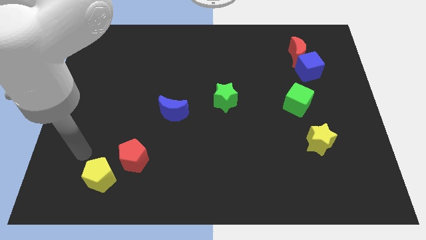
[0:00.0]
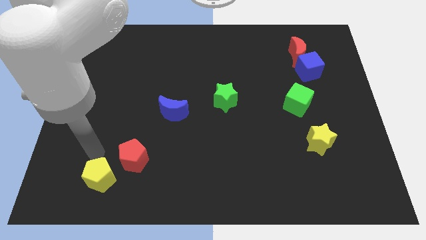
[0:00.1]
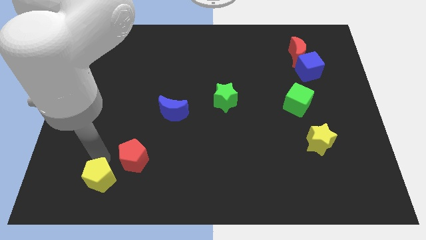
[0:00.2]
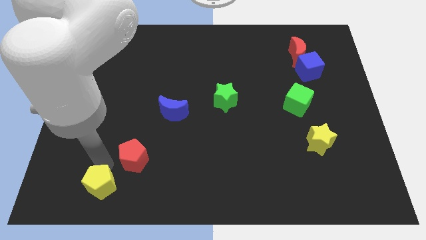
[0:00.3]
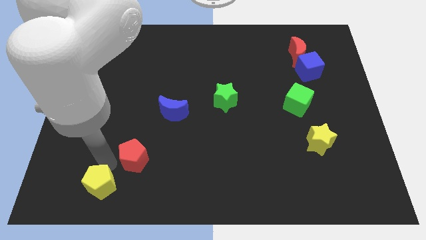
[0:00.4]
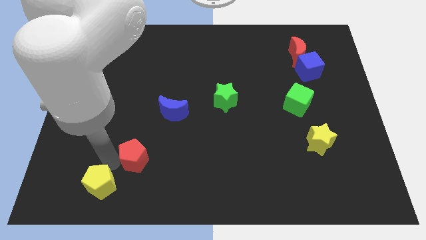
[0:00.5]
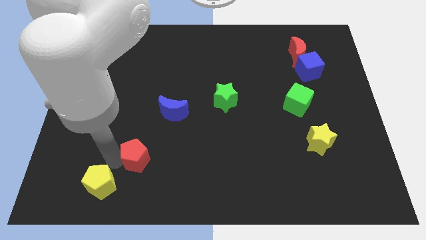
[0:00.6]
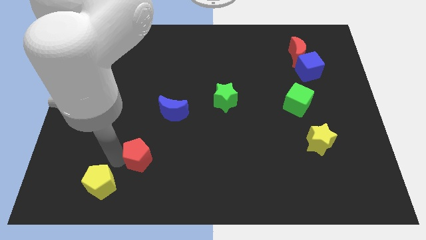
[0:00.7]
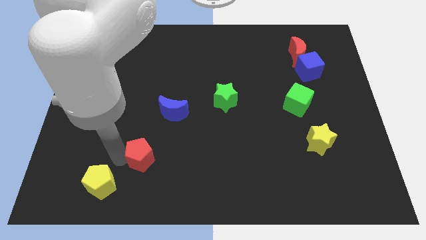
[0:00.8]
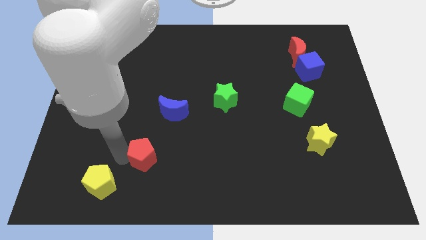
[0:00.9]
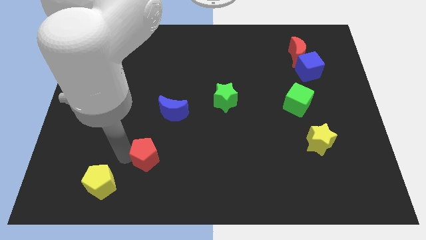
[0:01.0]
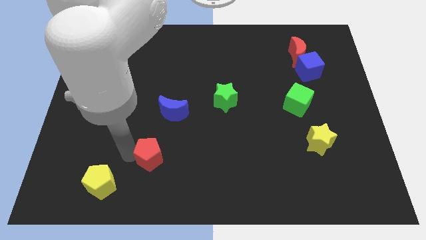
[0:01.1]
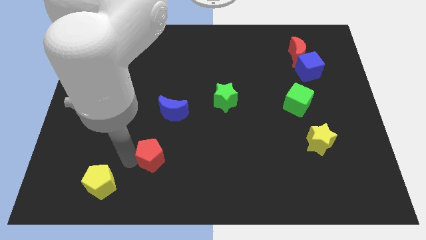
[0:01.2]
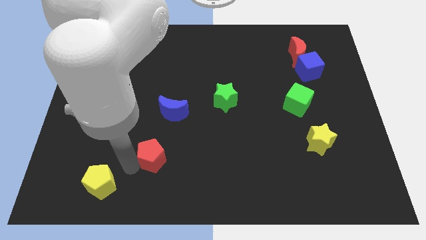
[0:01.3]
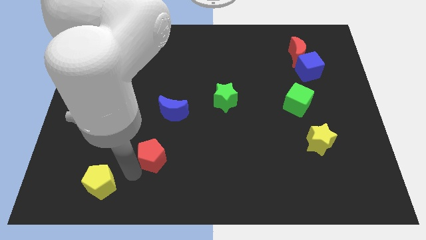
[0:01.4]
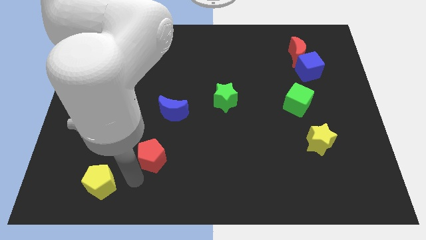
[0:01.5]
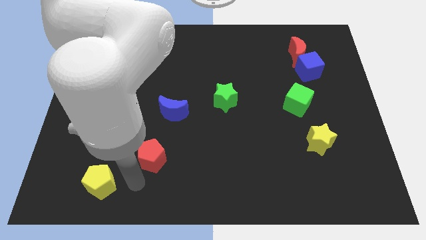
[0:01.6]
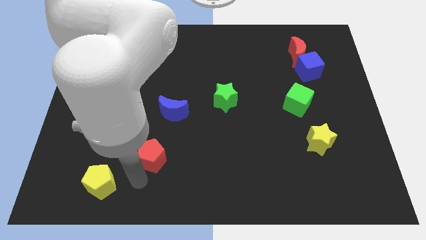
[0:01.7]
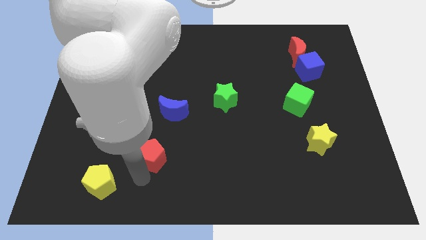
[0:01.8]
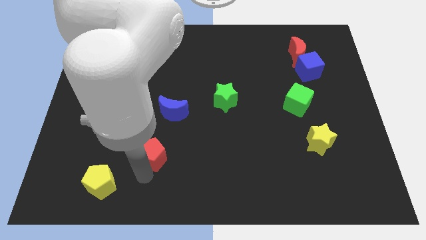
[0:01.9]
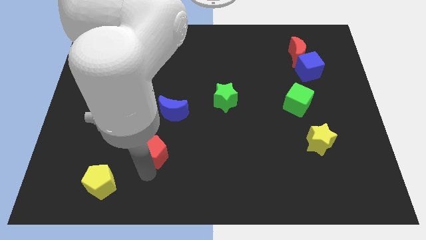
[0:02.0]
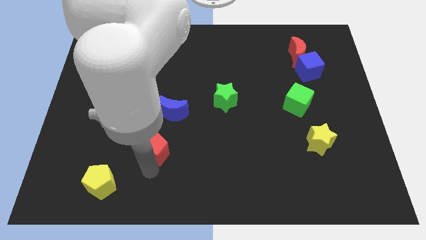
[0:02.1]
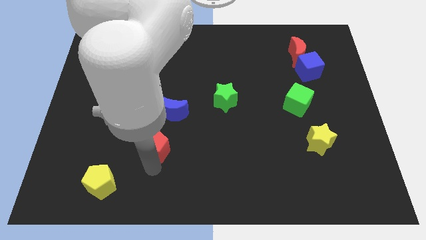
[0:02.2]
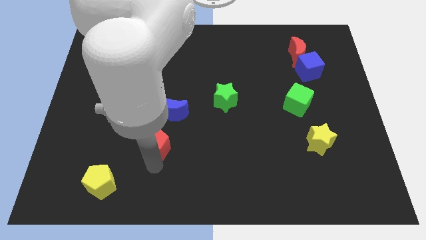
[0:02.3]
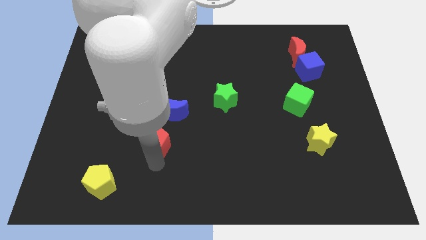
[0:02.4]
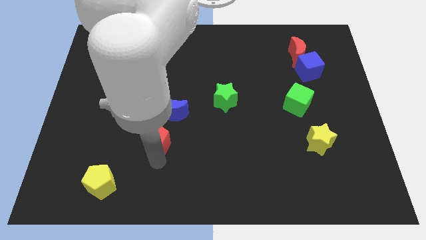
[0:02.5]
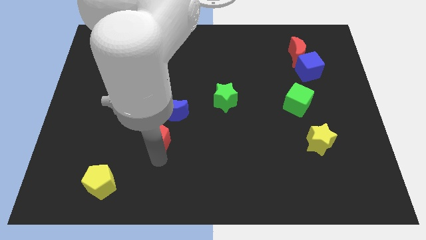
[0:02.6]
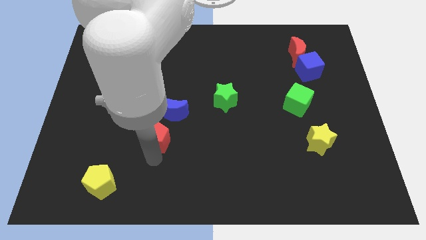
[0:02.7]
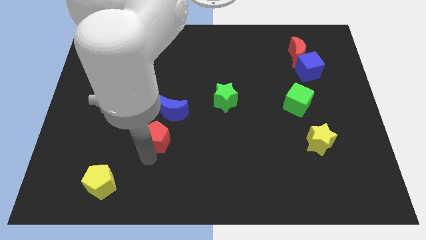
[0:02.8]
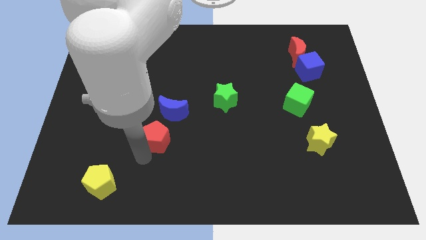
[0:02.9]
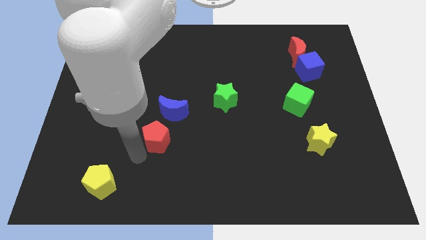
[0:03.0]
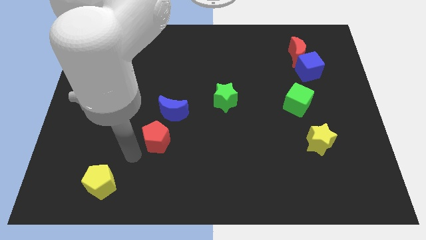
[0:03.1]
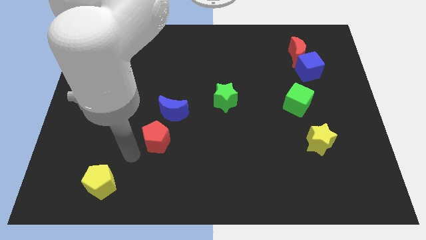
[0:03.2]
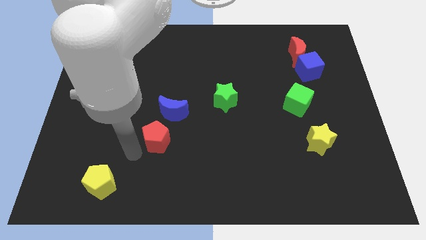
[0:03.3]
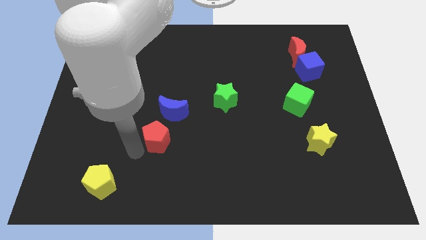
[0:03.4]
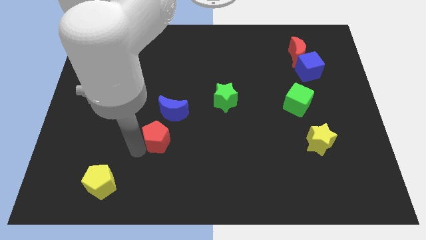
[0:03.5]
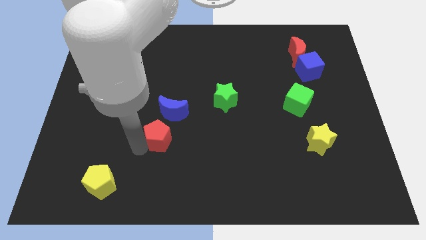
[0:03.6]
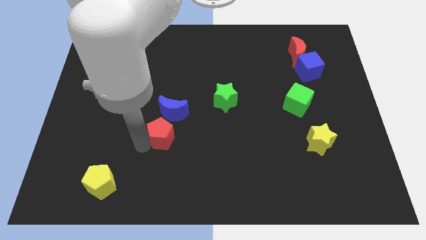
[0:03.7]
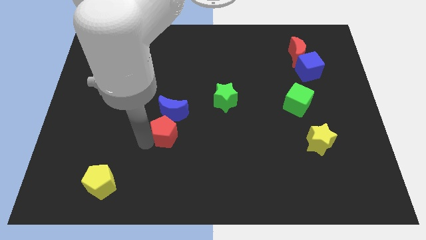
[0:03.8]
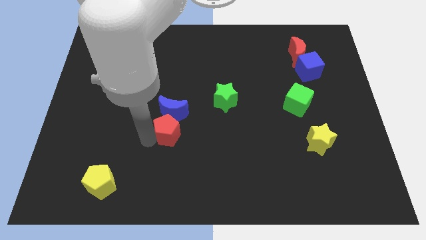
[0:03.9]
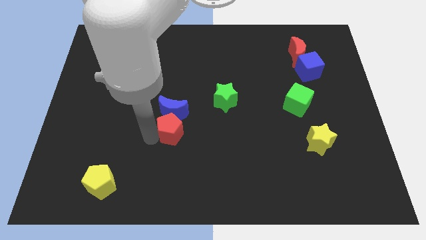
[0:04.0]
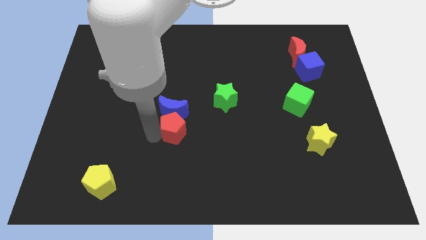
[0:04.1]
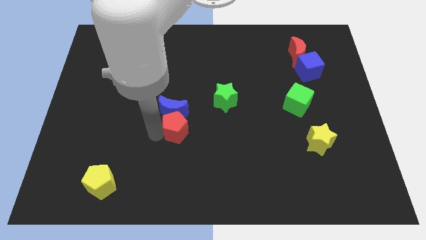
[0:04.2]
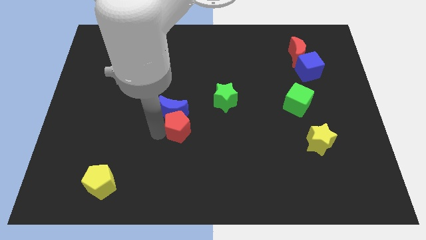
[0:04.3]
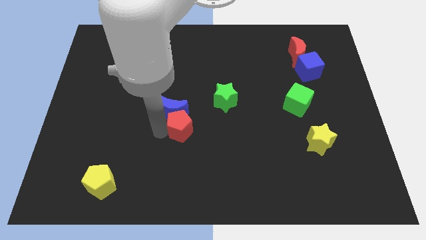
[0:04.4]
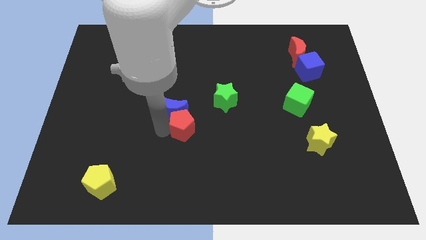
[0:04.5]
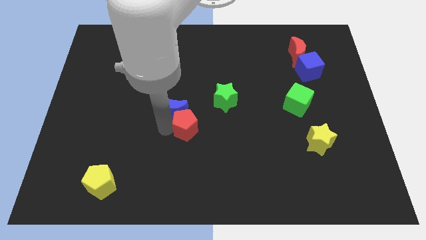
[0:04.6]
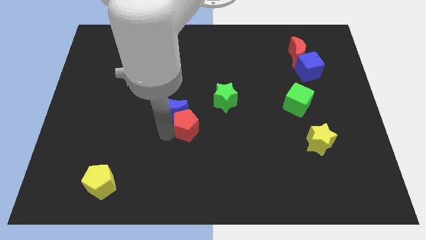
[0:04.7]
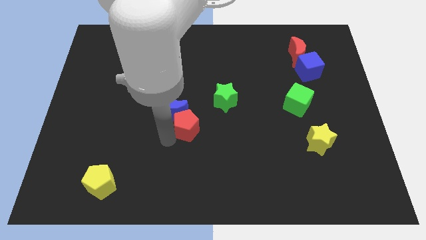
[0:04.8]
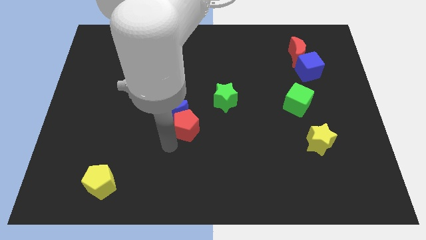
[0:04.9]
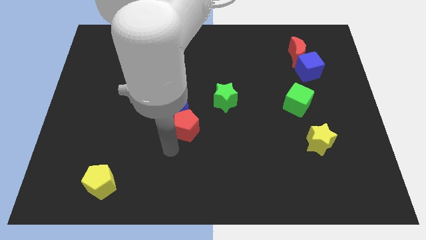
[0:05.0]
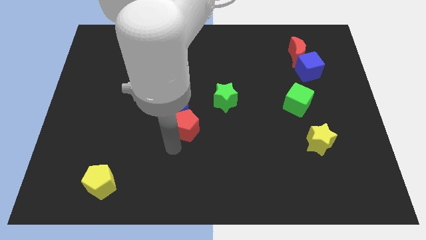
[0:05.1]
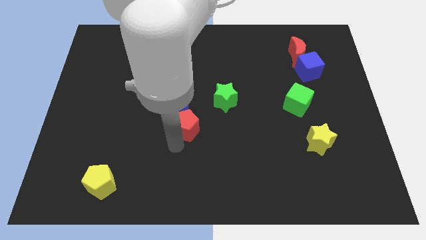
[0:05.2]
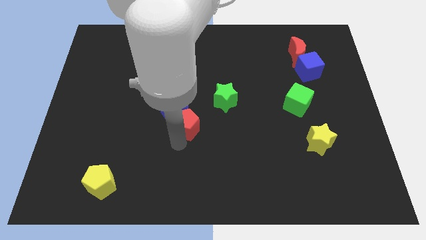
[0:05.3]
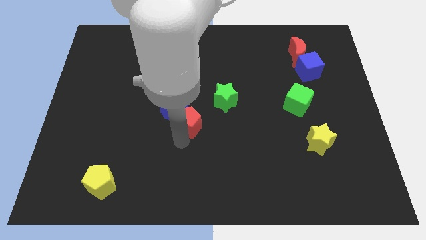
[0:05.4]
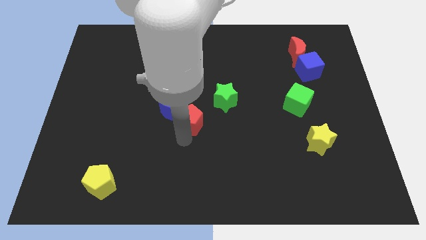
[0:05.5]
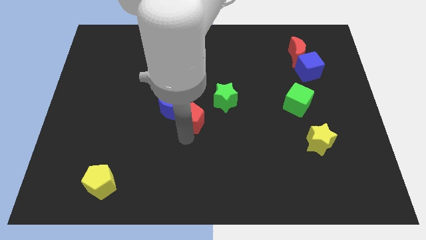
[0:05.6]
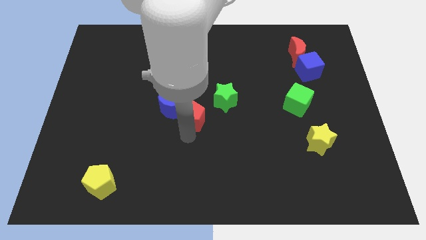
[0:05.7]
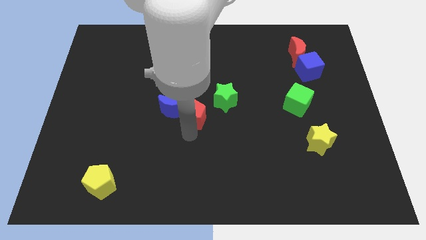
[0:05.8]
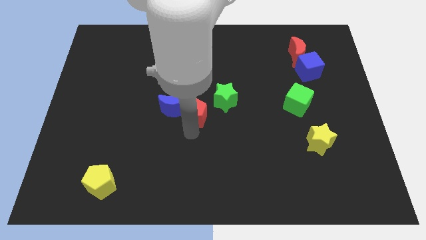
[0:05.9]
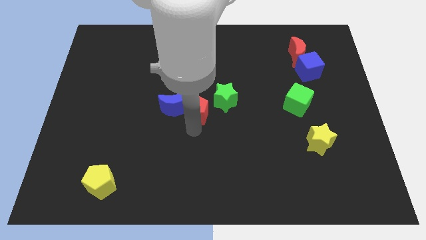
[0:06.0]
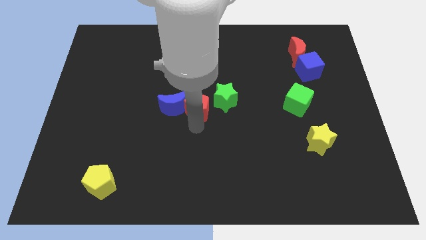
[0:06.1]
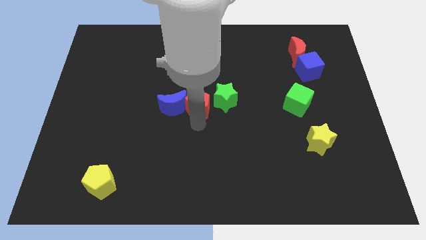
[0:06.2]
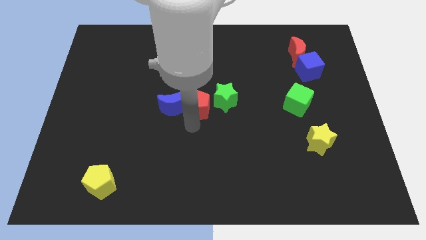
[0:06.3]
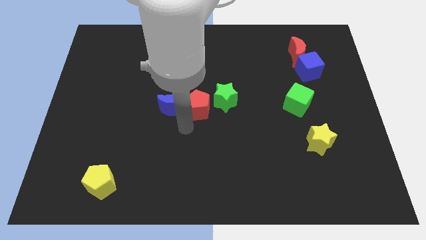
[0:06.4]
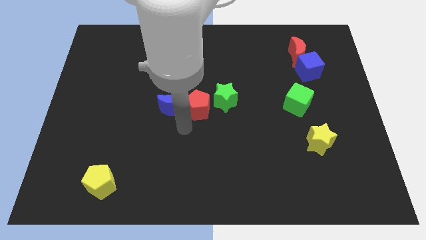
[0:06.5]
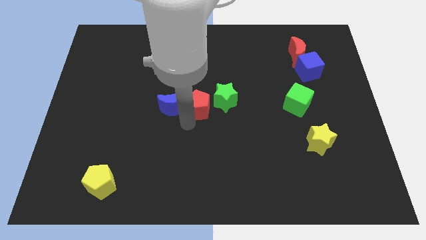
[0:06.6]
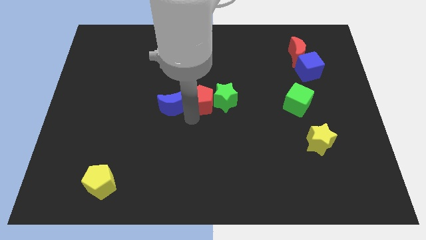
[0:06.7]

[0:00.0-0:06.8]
push the red pentagon diagonally upwards and right

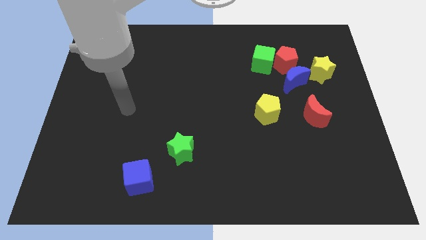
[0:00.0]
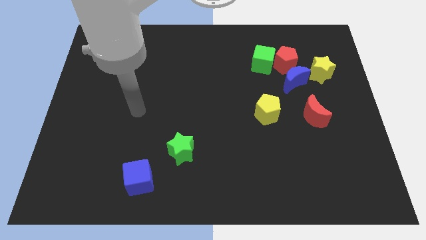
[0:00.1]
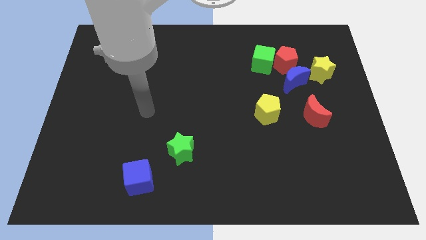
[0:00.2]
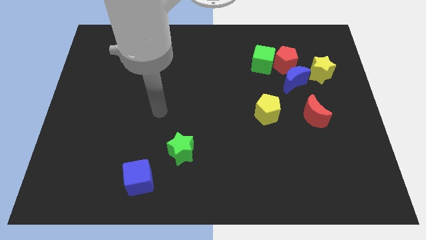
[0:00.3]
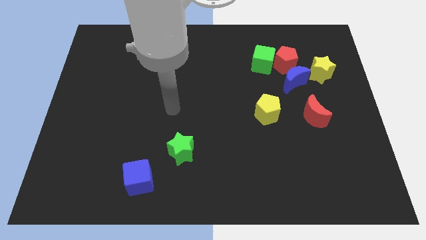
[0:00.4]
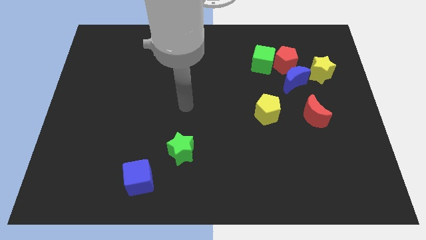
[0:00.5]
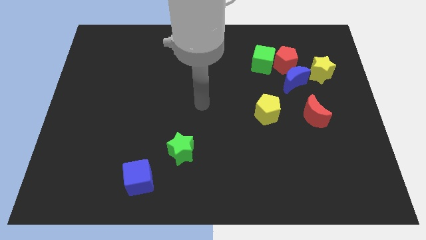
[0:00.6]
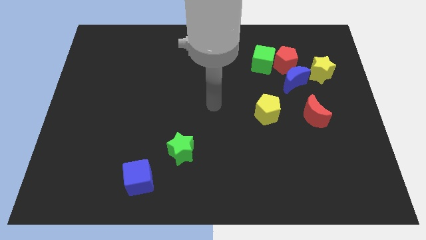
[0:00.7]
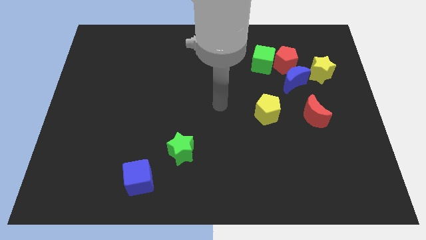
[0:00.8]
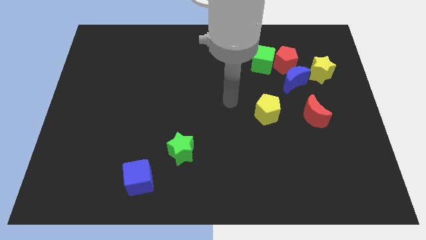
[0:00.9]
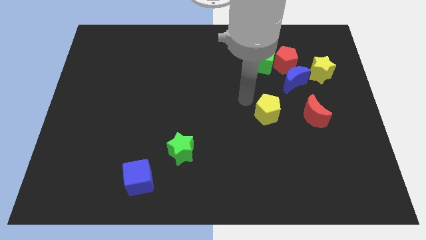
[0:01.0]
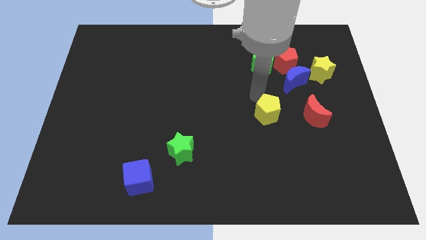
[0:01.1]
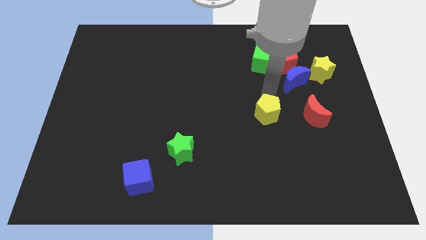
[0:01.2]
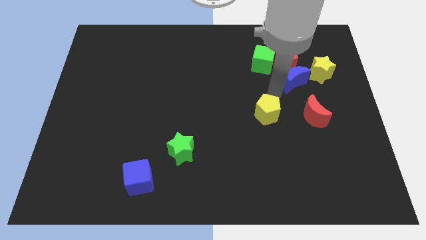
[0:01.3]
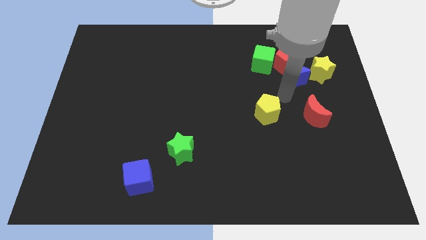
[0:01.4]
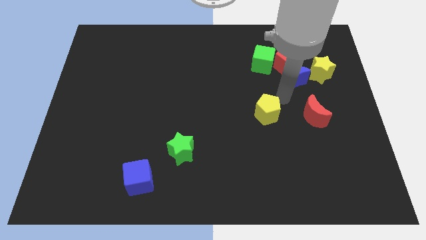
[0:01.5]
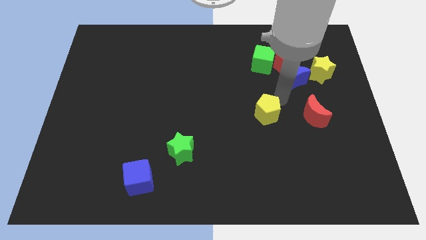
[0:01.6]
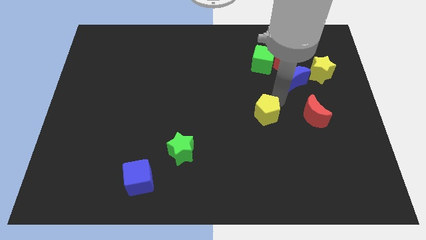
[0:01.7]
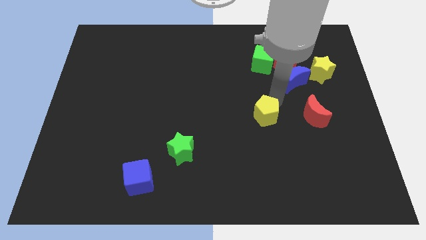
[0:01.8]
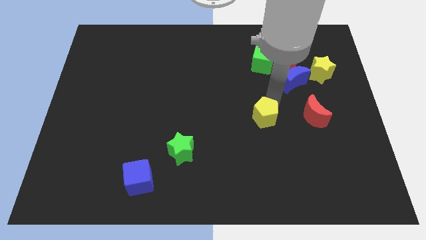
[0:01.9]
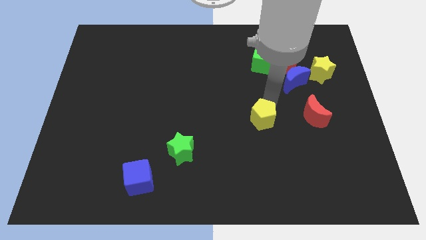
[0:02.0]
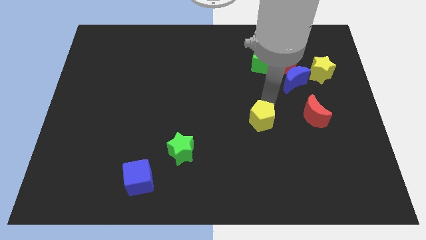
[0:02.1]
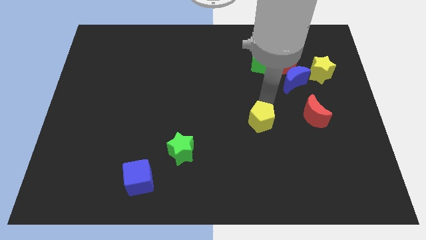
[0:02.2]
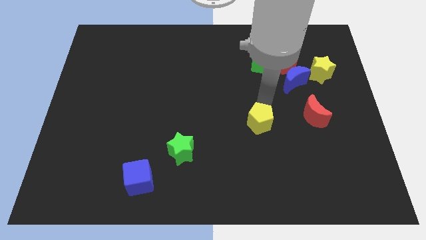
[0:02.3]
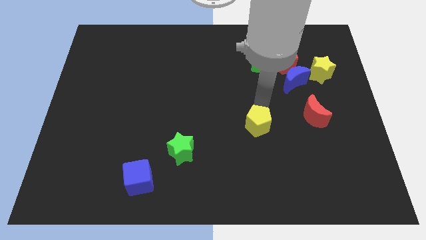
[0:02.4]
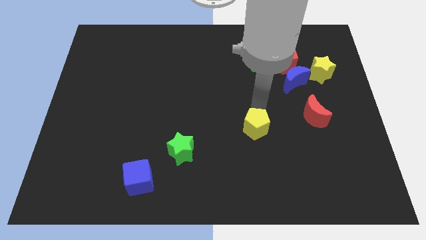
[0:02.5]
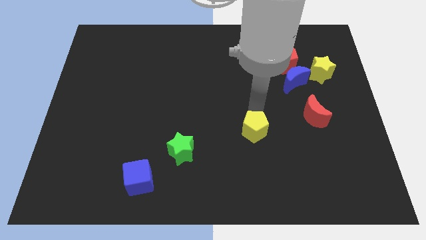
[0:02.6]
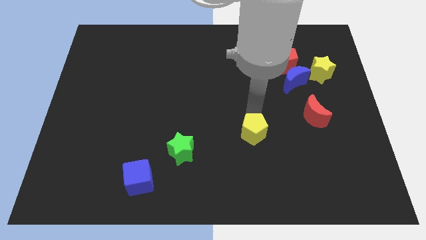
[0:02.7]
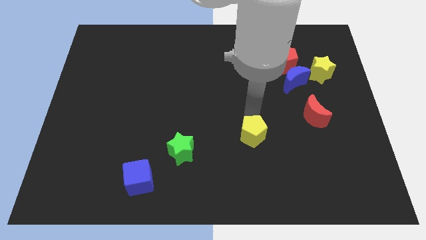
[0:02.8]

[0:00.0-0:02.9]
slide the yellow pentagon a bit downwards and then to the left
